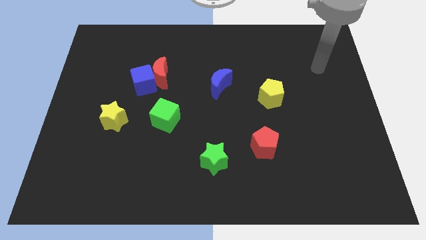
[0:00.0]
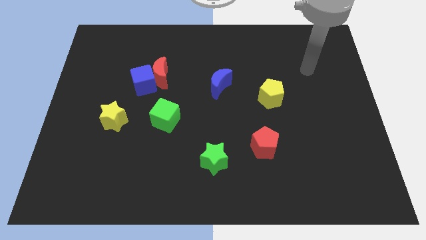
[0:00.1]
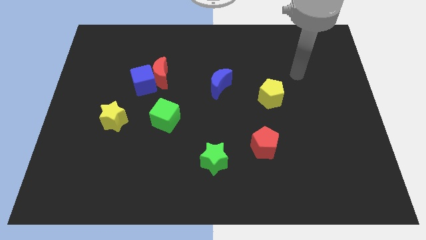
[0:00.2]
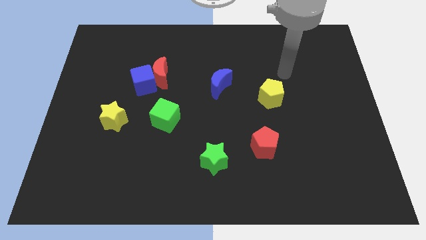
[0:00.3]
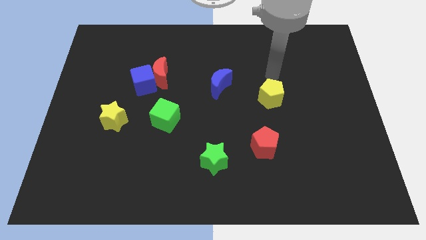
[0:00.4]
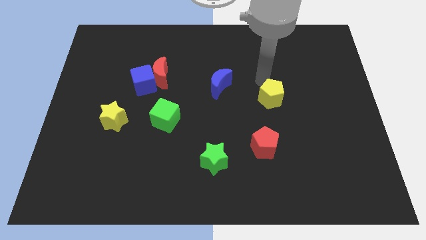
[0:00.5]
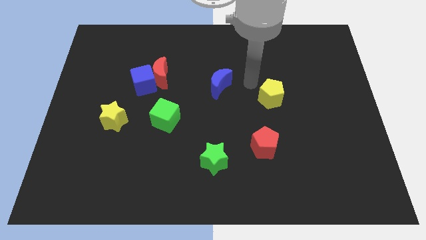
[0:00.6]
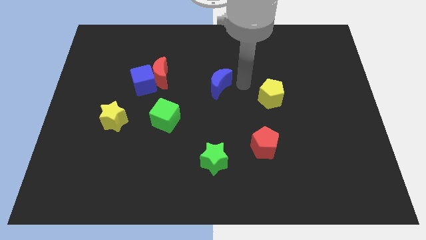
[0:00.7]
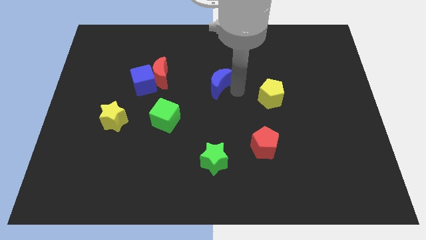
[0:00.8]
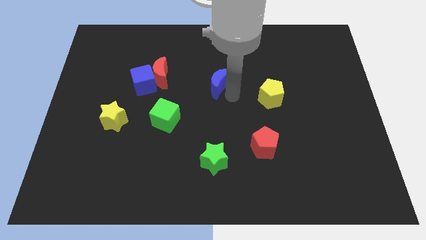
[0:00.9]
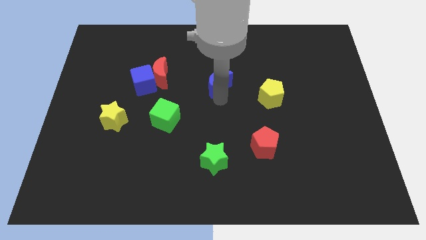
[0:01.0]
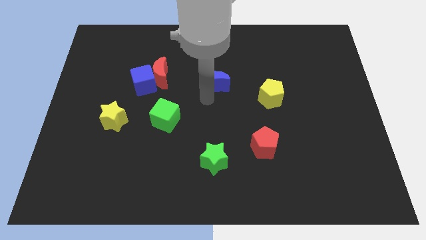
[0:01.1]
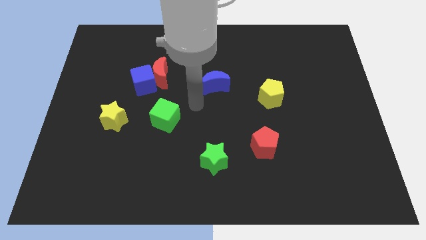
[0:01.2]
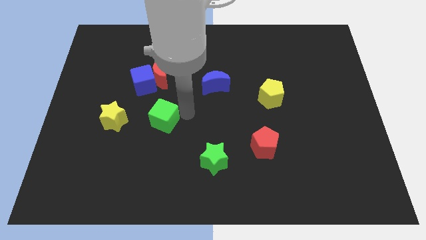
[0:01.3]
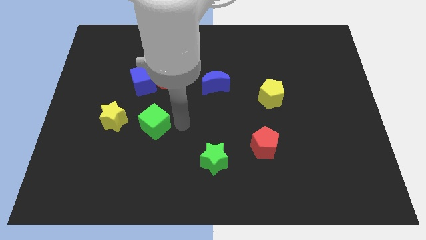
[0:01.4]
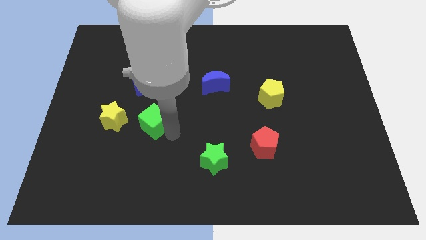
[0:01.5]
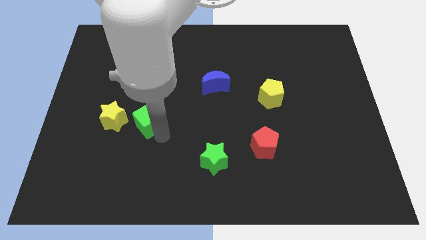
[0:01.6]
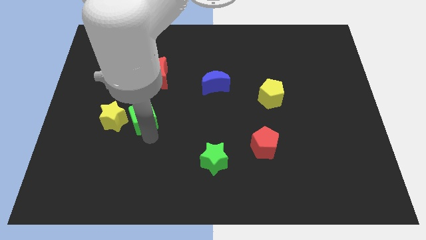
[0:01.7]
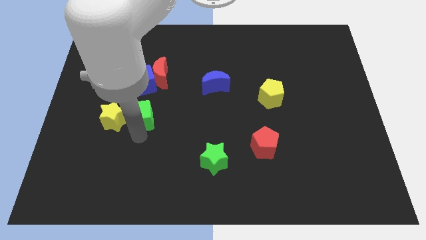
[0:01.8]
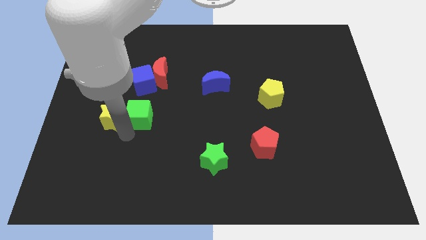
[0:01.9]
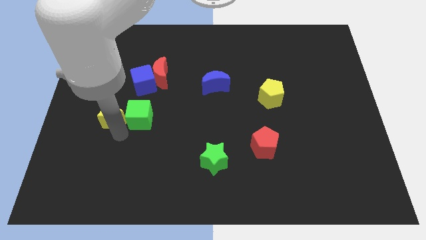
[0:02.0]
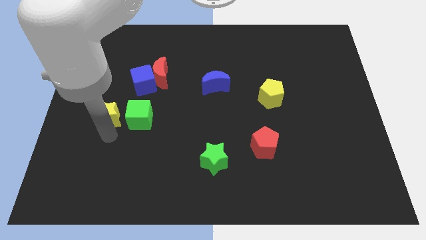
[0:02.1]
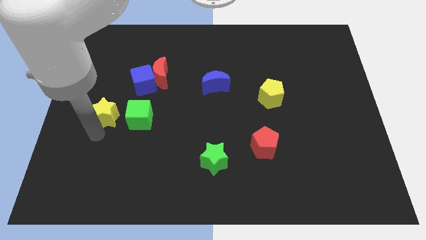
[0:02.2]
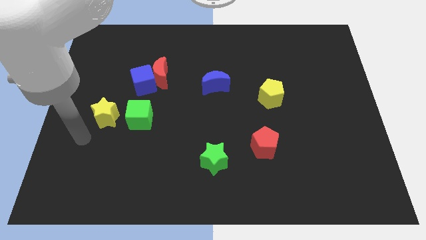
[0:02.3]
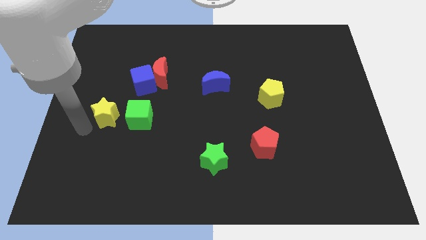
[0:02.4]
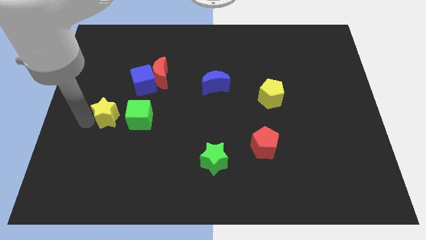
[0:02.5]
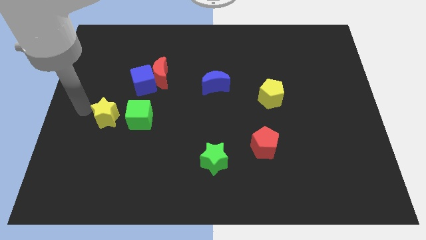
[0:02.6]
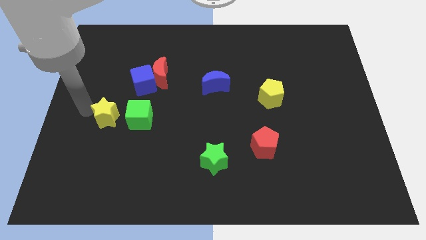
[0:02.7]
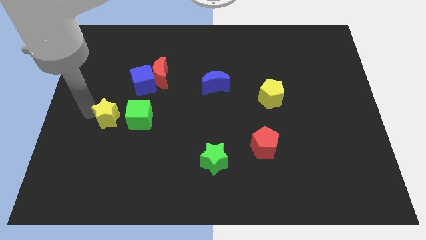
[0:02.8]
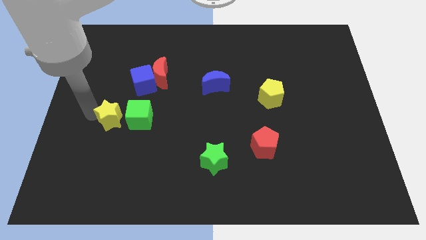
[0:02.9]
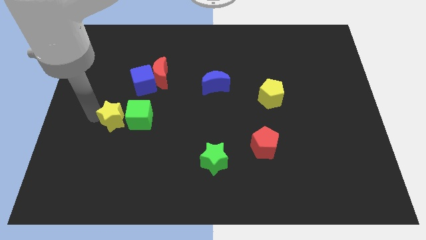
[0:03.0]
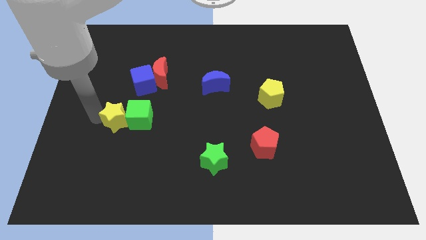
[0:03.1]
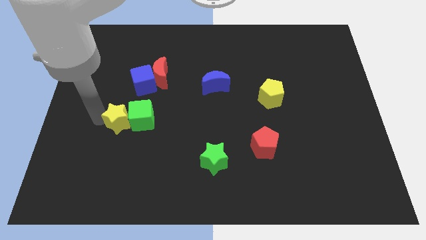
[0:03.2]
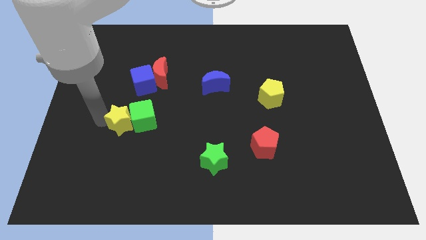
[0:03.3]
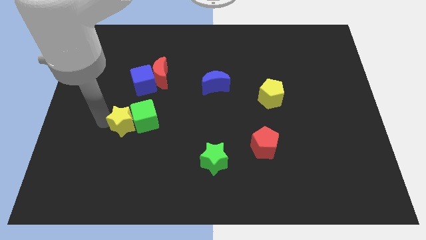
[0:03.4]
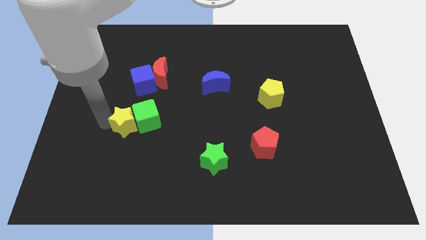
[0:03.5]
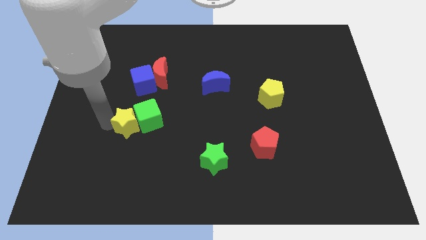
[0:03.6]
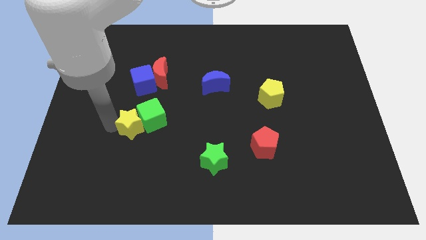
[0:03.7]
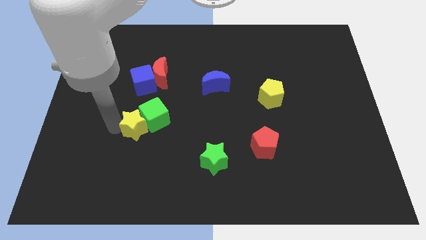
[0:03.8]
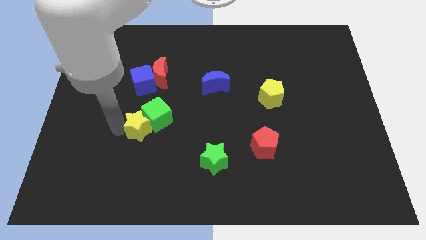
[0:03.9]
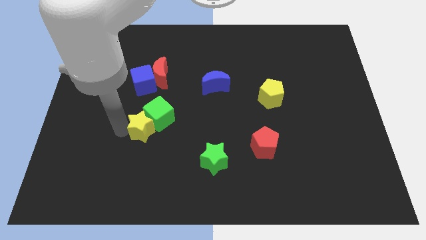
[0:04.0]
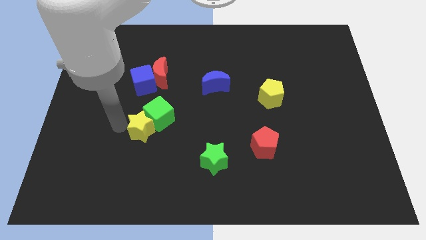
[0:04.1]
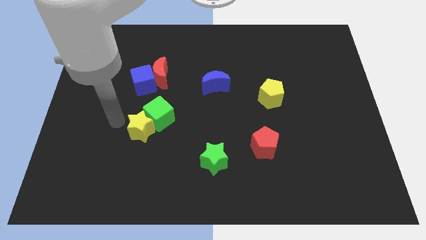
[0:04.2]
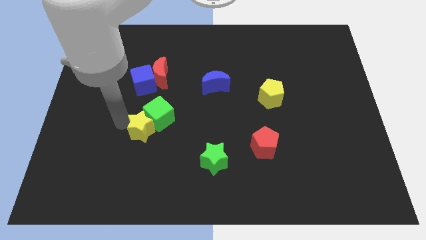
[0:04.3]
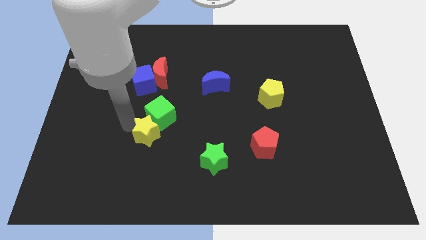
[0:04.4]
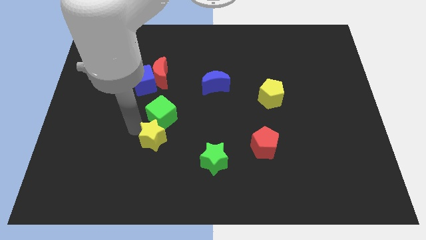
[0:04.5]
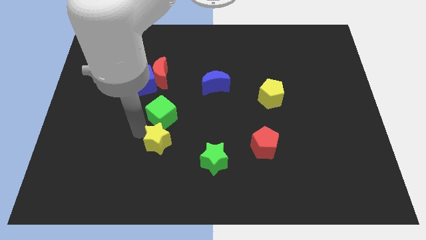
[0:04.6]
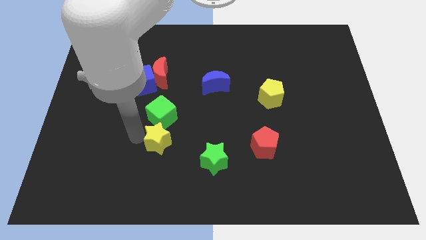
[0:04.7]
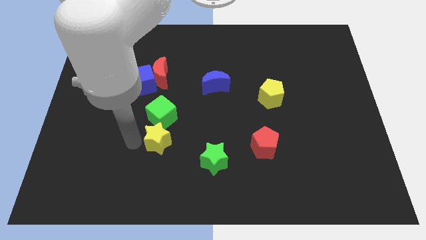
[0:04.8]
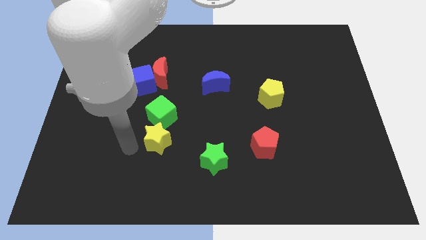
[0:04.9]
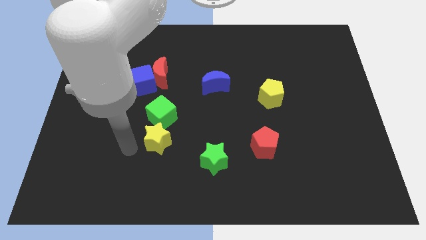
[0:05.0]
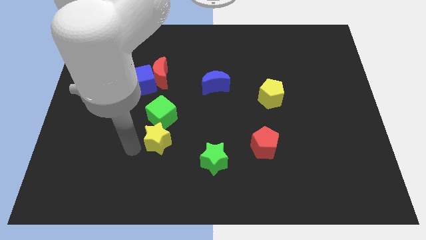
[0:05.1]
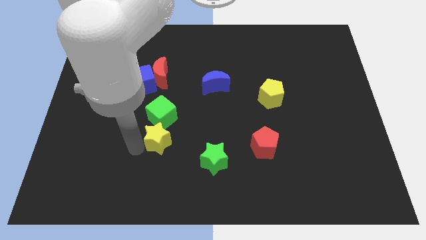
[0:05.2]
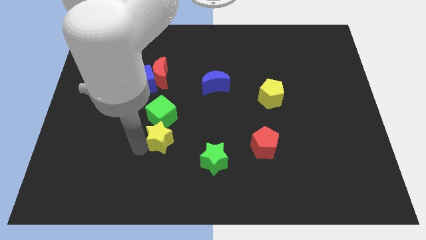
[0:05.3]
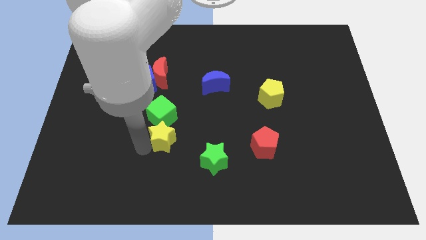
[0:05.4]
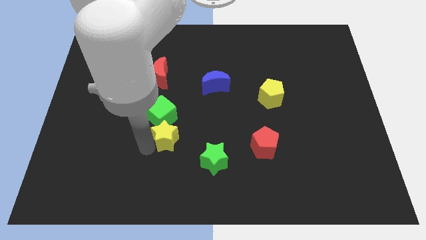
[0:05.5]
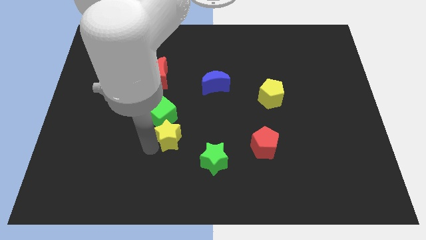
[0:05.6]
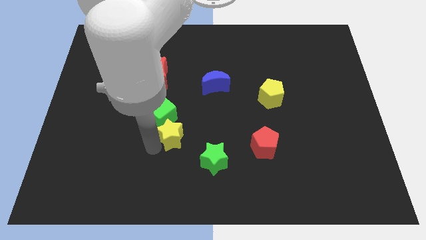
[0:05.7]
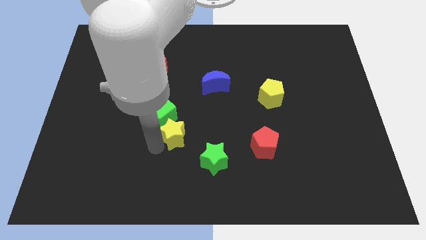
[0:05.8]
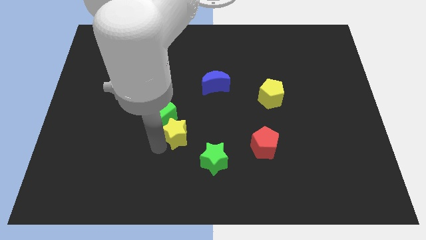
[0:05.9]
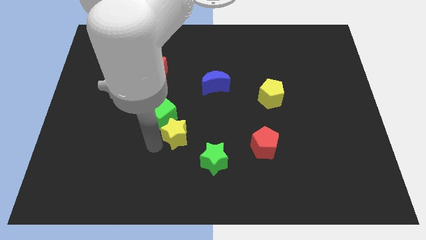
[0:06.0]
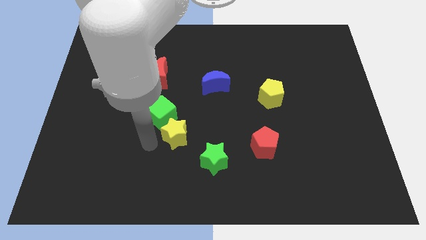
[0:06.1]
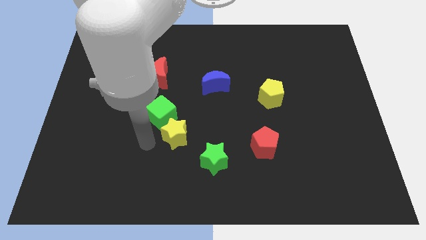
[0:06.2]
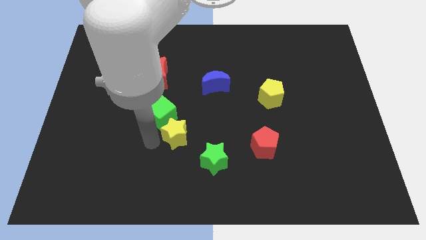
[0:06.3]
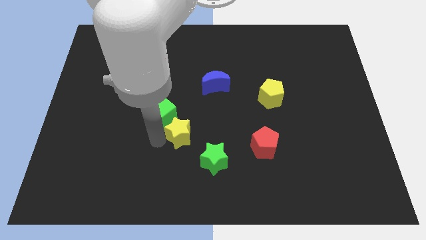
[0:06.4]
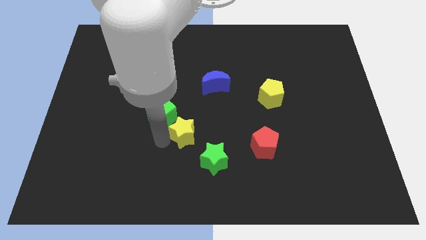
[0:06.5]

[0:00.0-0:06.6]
put the yellow star to the right of the green cube

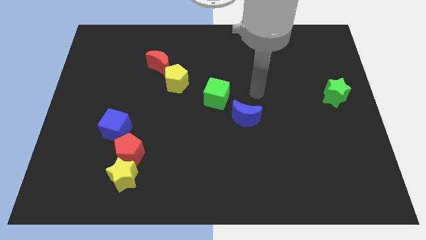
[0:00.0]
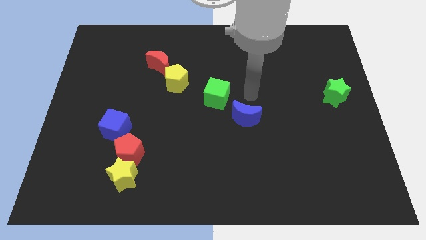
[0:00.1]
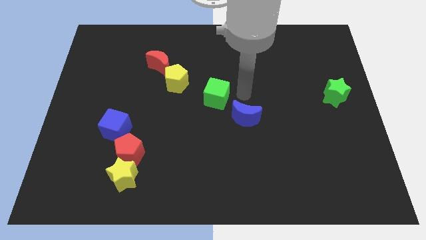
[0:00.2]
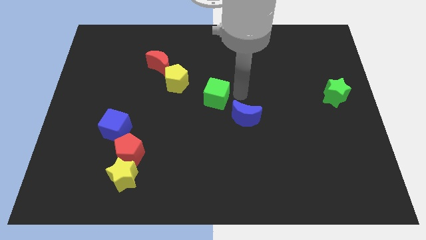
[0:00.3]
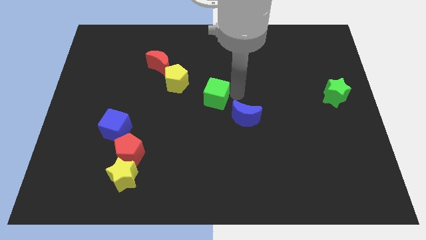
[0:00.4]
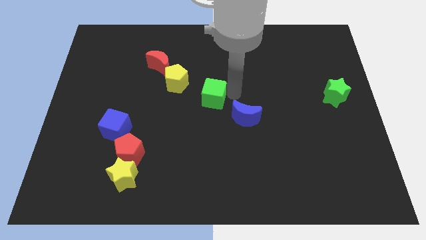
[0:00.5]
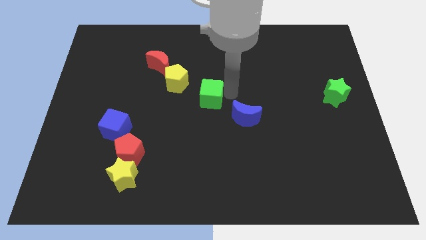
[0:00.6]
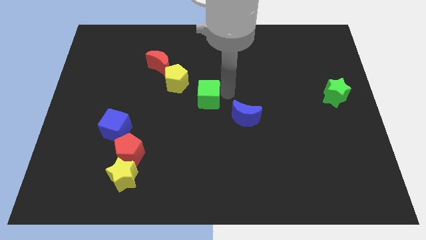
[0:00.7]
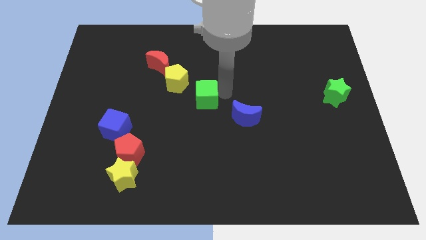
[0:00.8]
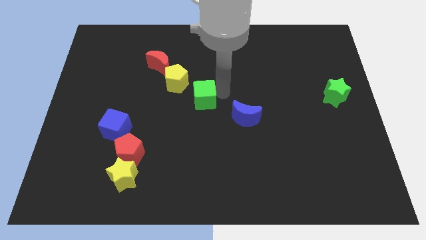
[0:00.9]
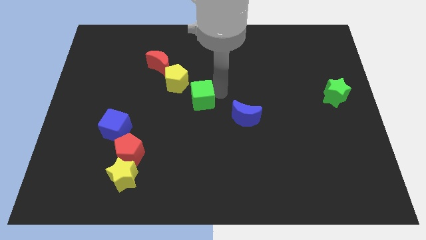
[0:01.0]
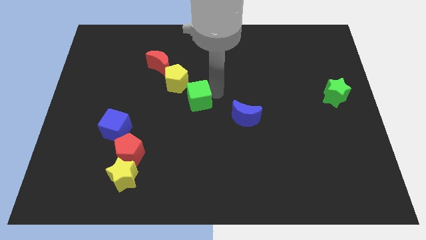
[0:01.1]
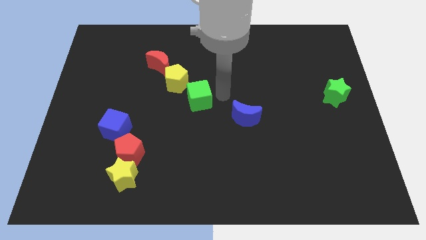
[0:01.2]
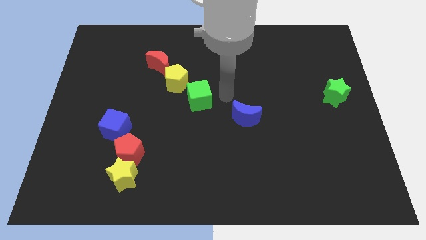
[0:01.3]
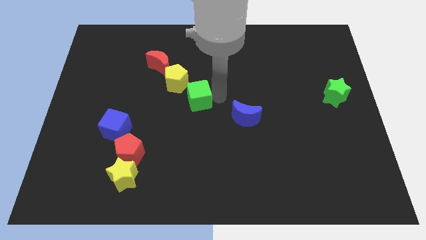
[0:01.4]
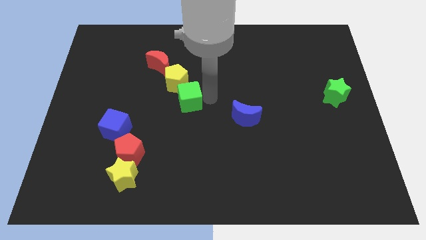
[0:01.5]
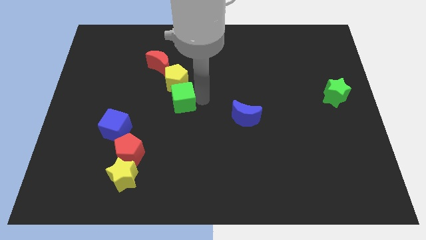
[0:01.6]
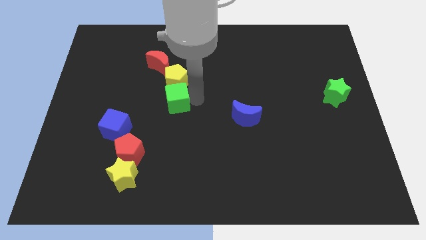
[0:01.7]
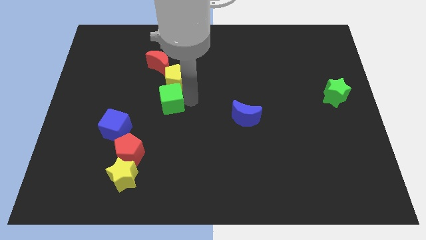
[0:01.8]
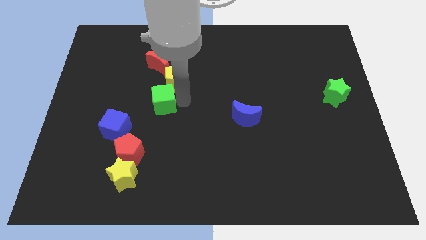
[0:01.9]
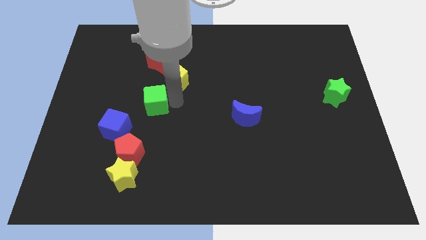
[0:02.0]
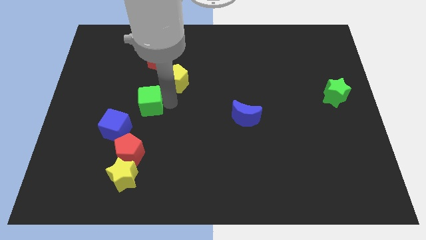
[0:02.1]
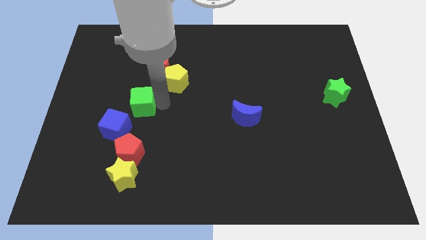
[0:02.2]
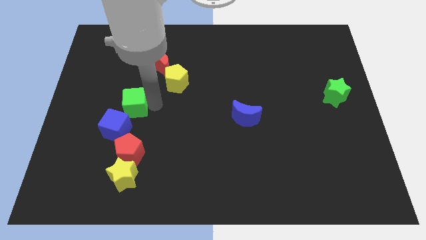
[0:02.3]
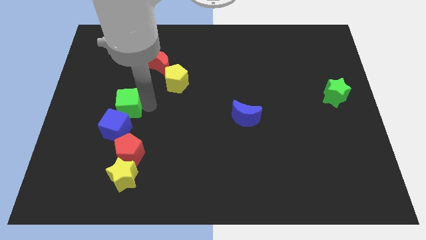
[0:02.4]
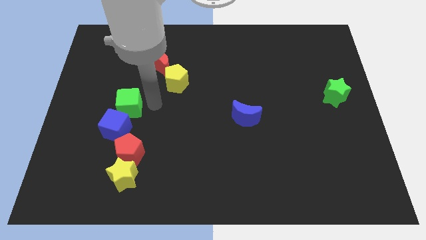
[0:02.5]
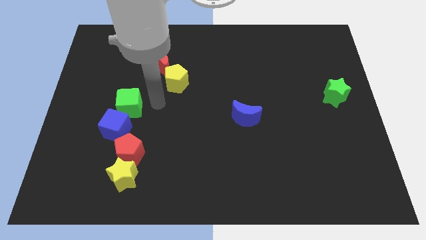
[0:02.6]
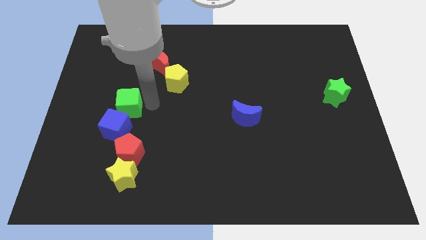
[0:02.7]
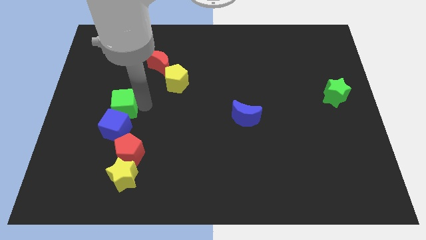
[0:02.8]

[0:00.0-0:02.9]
slide the green cube to the top left side of the blue cube
